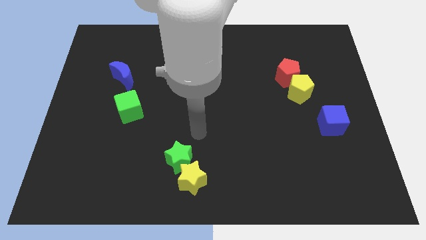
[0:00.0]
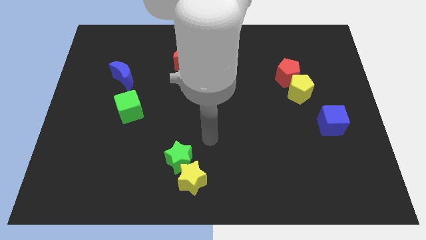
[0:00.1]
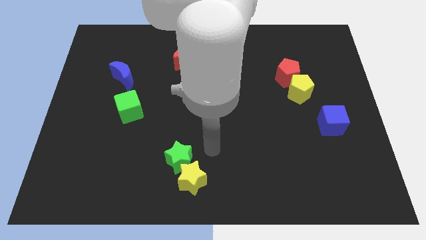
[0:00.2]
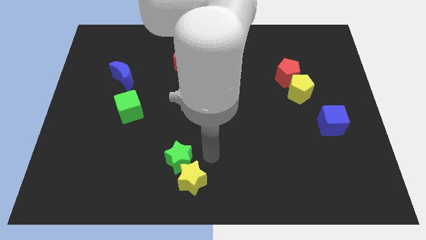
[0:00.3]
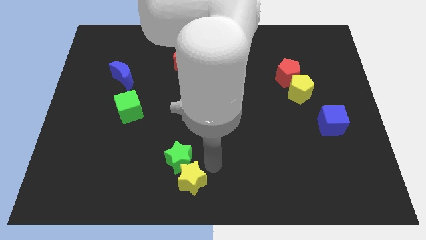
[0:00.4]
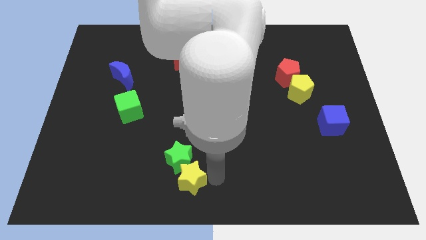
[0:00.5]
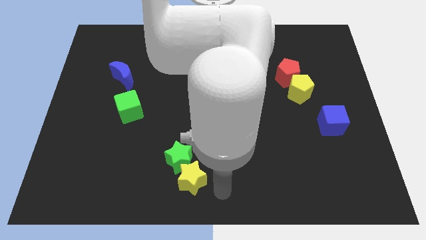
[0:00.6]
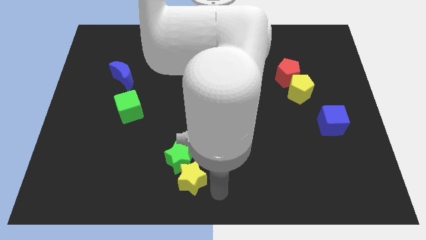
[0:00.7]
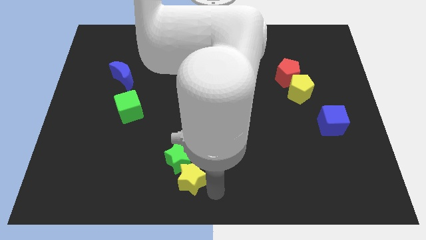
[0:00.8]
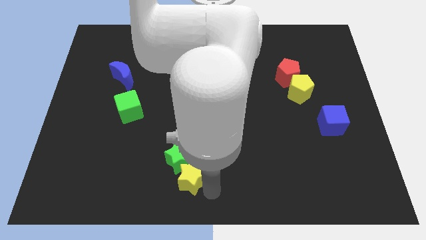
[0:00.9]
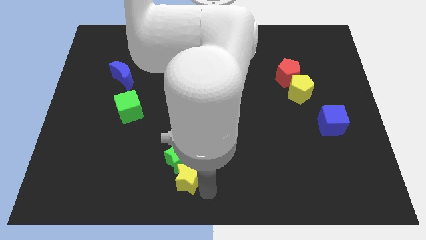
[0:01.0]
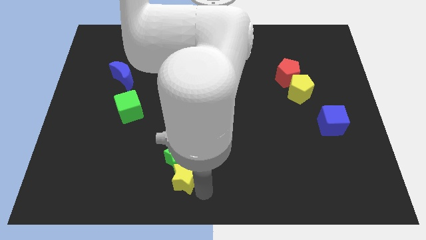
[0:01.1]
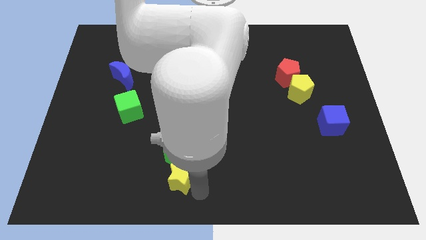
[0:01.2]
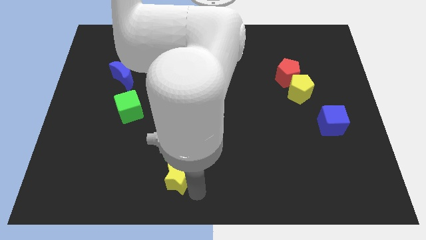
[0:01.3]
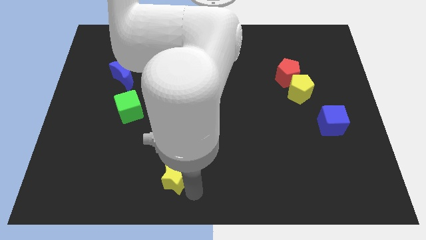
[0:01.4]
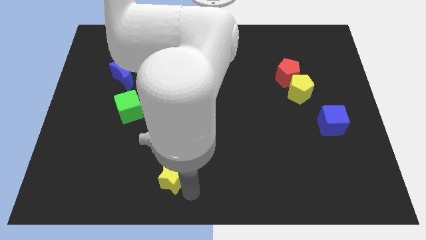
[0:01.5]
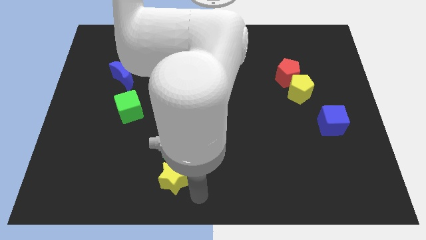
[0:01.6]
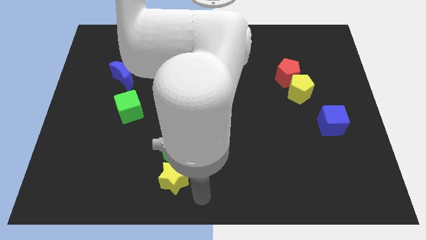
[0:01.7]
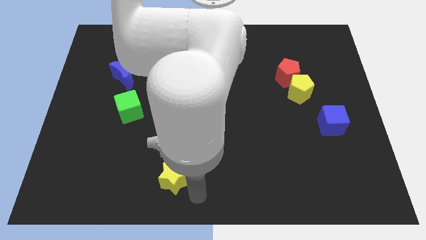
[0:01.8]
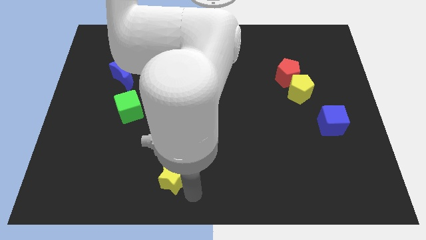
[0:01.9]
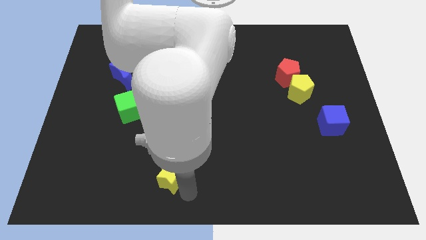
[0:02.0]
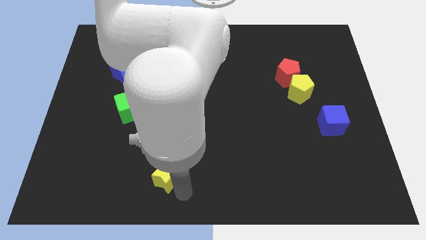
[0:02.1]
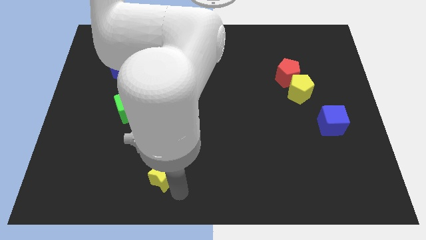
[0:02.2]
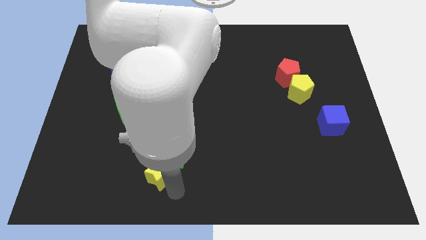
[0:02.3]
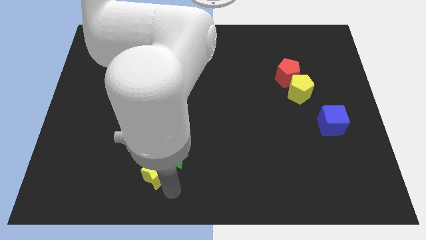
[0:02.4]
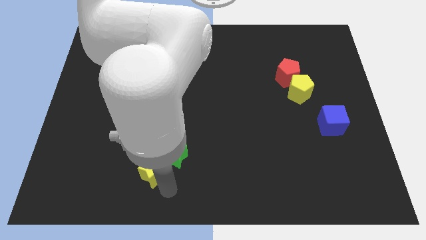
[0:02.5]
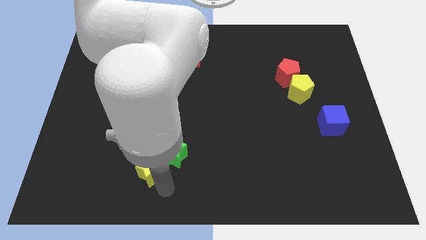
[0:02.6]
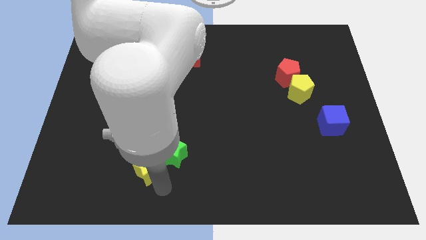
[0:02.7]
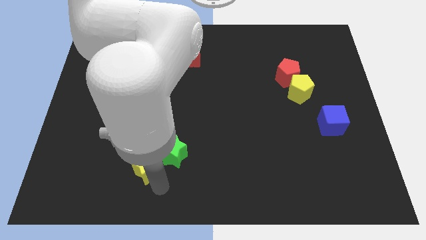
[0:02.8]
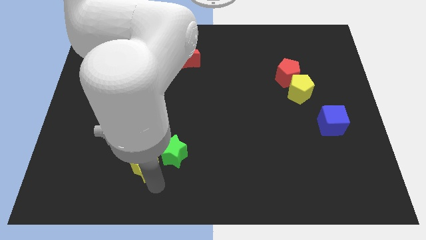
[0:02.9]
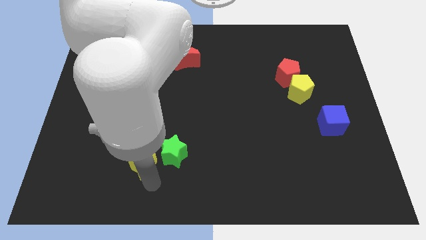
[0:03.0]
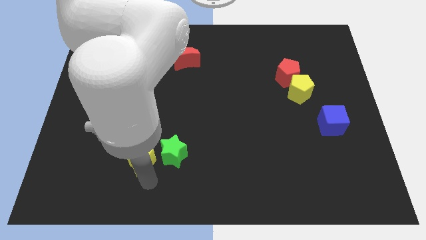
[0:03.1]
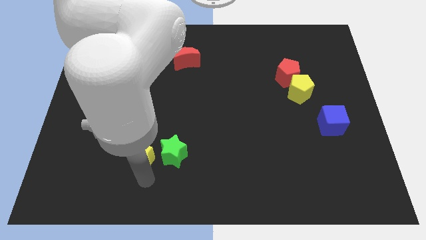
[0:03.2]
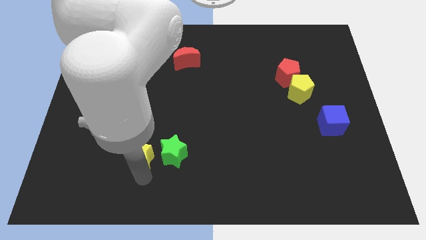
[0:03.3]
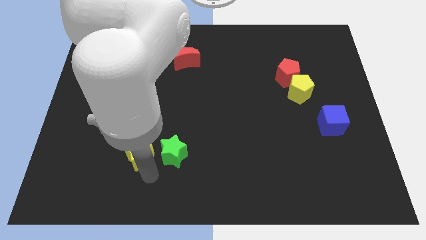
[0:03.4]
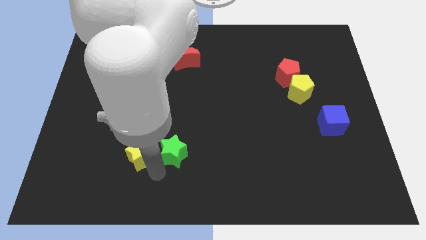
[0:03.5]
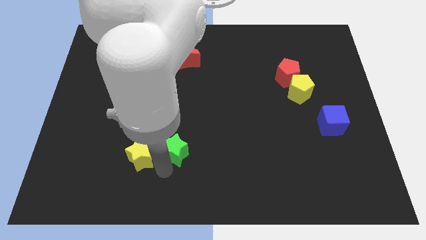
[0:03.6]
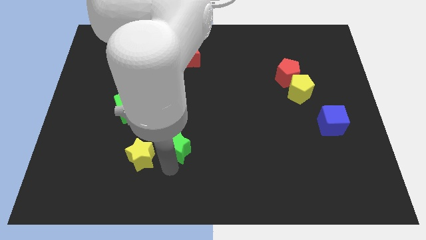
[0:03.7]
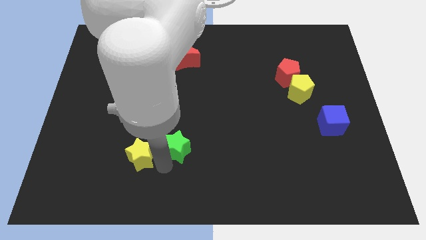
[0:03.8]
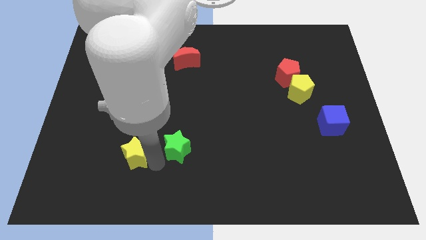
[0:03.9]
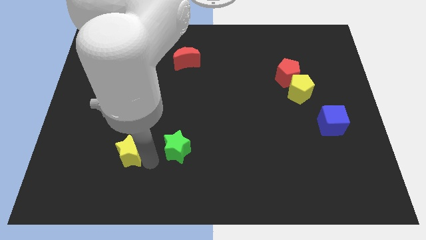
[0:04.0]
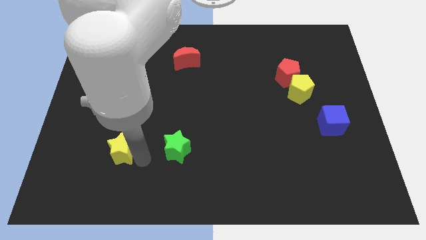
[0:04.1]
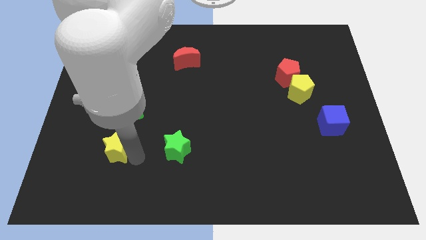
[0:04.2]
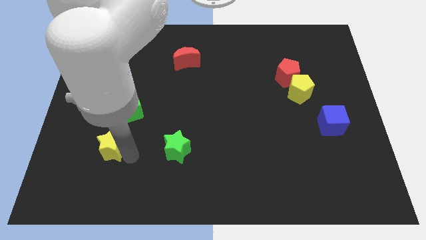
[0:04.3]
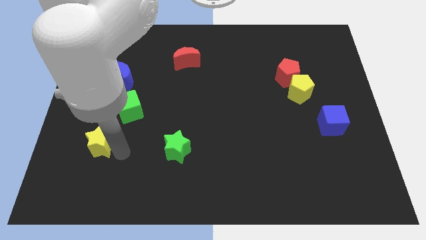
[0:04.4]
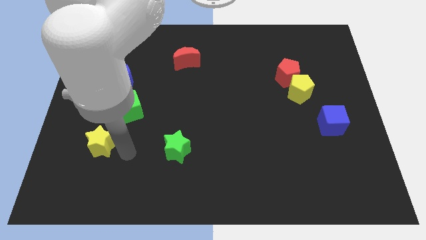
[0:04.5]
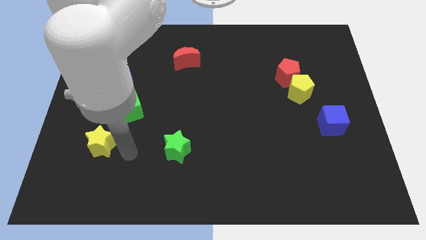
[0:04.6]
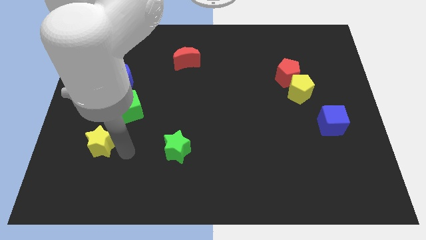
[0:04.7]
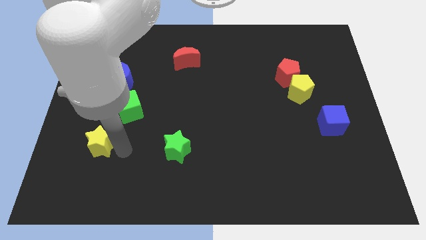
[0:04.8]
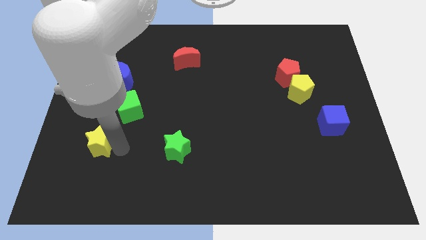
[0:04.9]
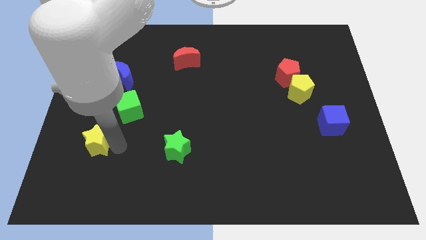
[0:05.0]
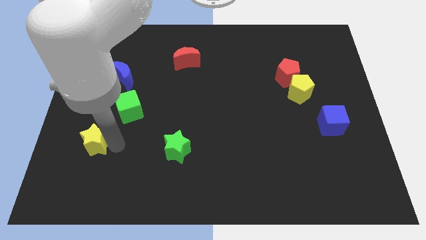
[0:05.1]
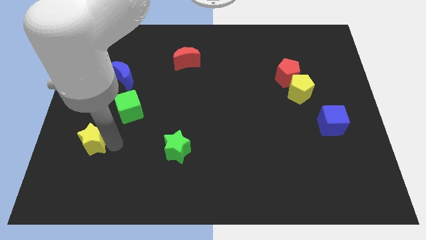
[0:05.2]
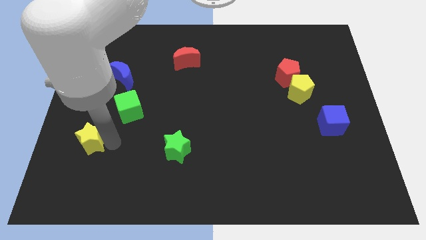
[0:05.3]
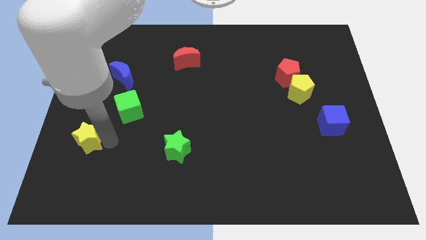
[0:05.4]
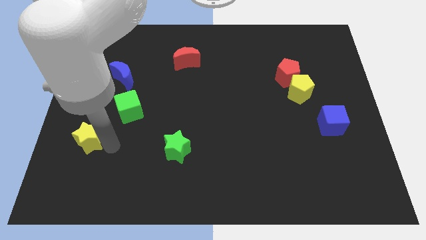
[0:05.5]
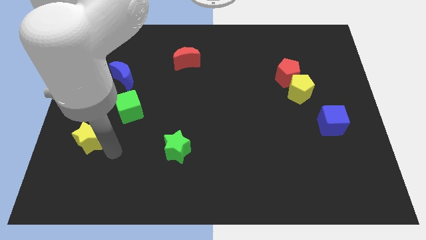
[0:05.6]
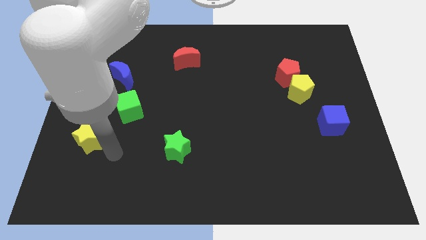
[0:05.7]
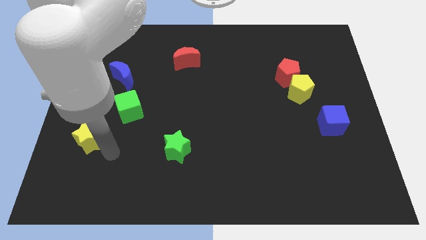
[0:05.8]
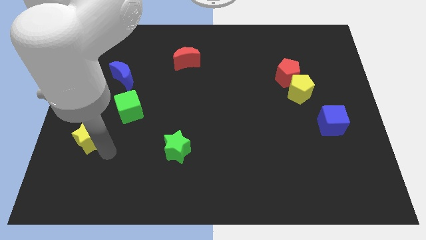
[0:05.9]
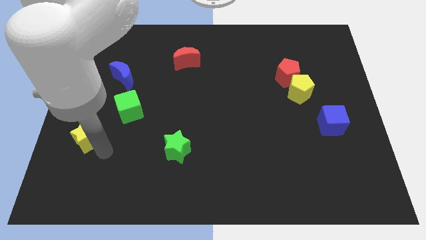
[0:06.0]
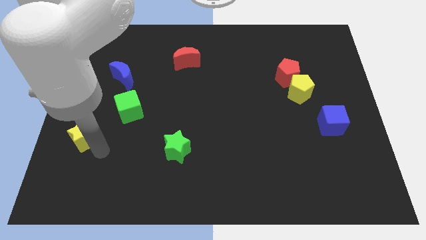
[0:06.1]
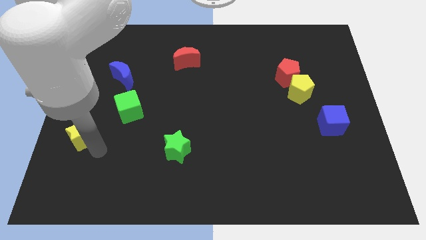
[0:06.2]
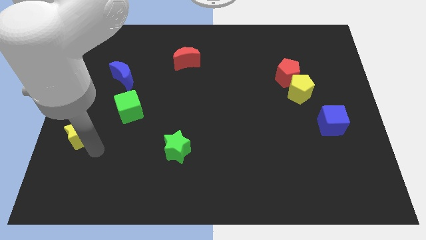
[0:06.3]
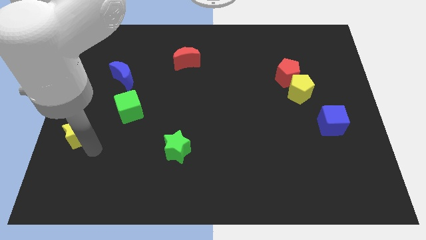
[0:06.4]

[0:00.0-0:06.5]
push the yellow star to the left side

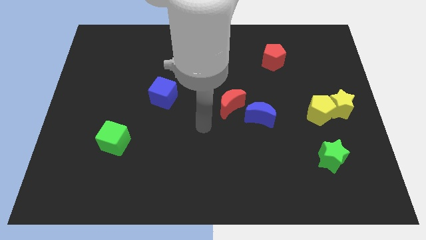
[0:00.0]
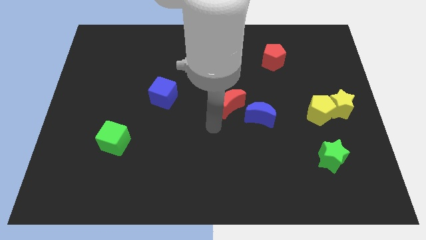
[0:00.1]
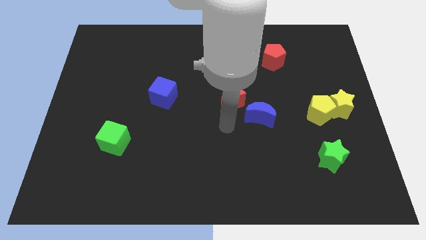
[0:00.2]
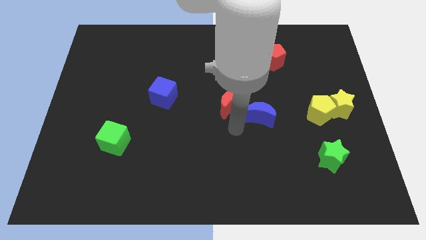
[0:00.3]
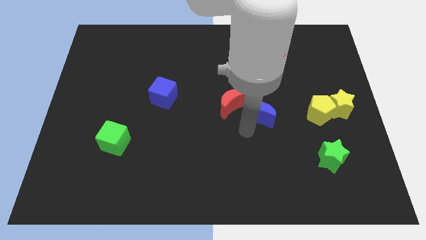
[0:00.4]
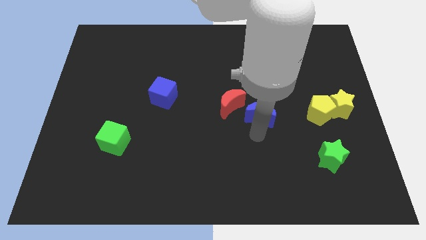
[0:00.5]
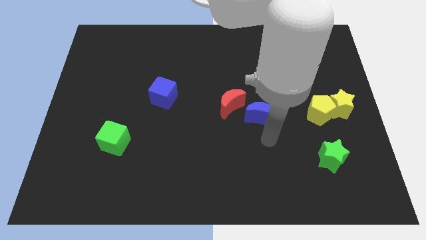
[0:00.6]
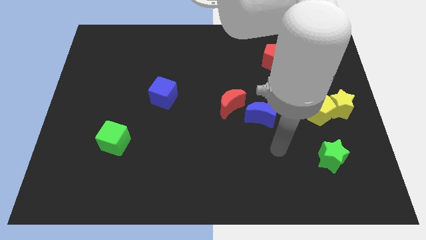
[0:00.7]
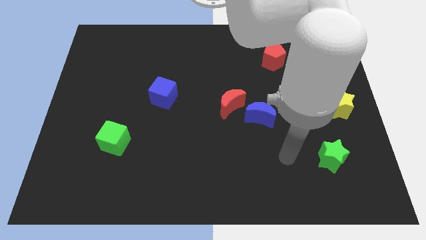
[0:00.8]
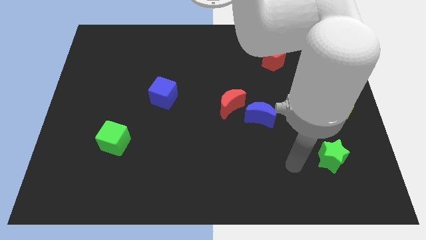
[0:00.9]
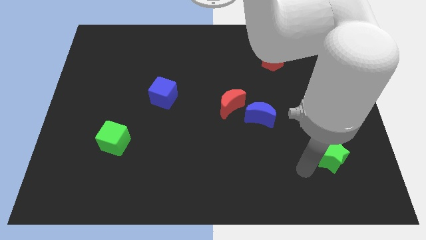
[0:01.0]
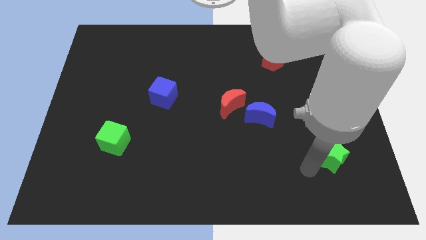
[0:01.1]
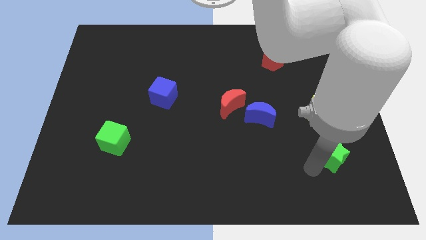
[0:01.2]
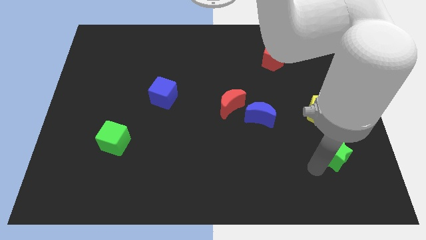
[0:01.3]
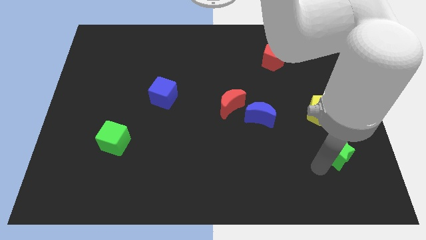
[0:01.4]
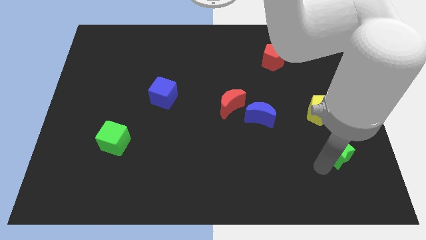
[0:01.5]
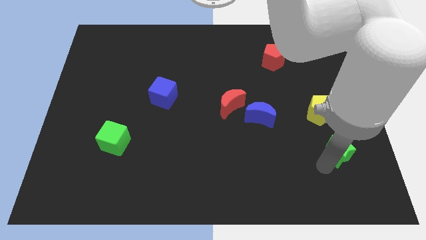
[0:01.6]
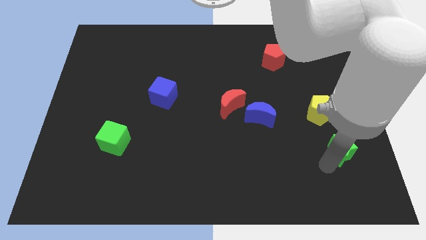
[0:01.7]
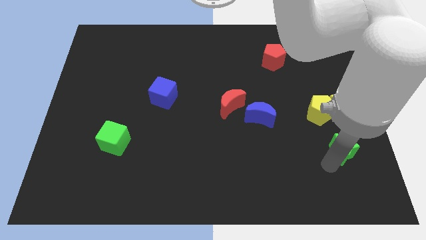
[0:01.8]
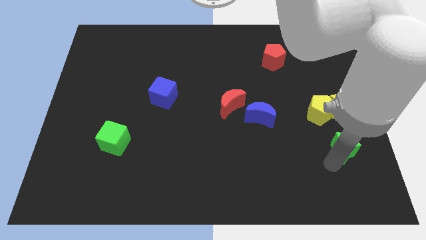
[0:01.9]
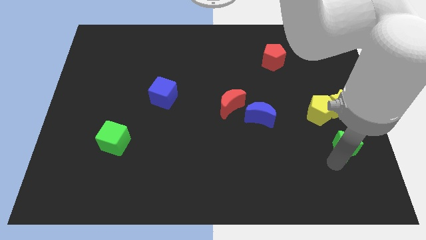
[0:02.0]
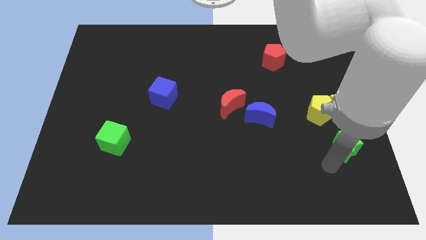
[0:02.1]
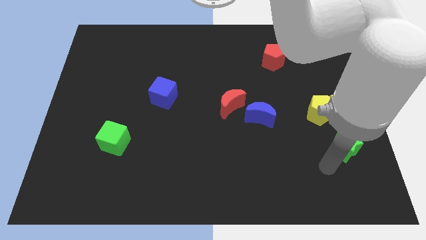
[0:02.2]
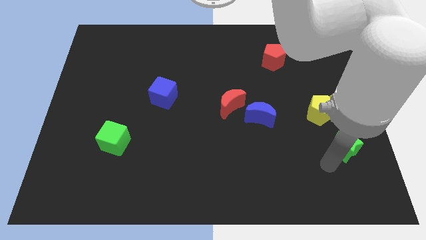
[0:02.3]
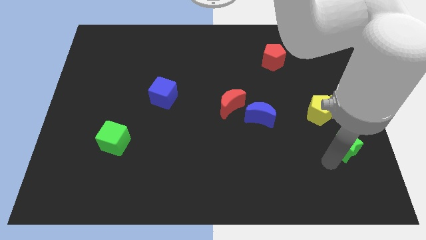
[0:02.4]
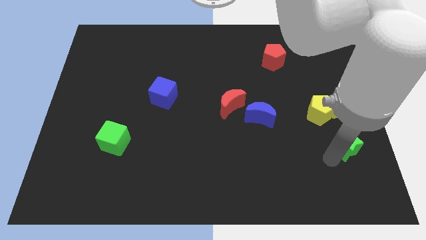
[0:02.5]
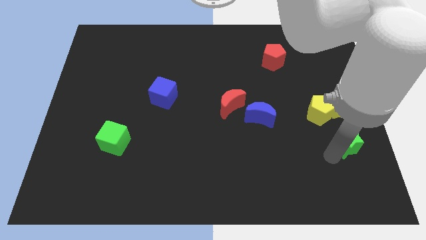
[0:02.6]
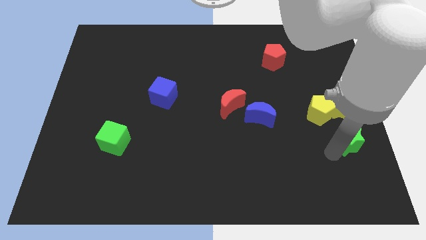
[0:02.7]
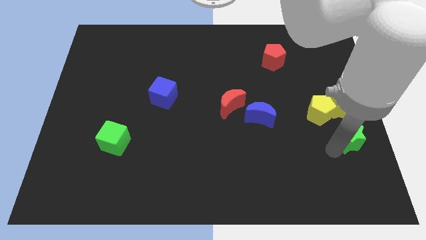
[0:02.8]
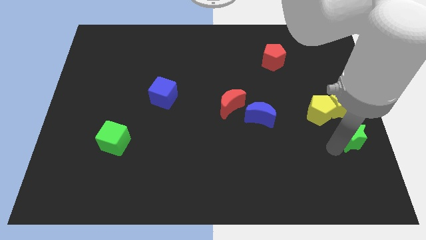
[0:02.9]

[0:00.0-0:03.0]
slide the green star to the center right
